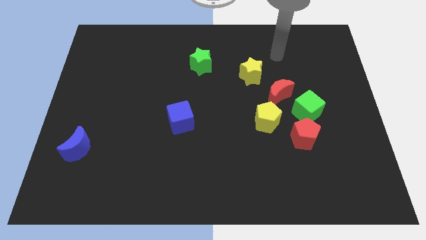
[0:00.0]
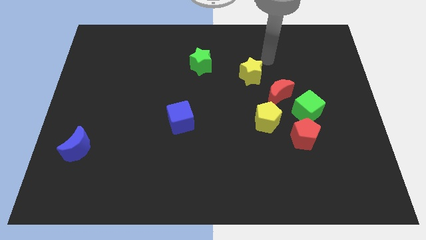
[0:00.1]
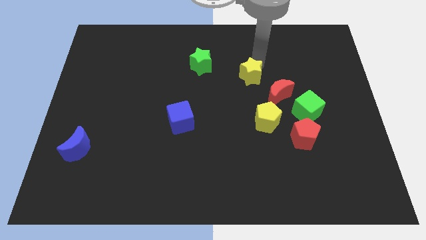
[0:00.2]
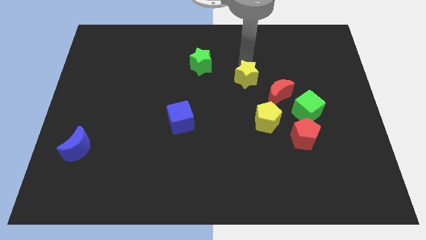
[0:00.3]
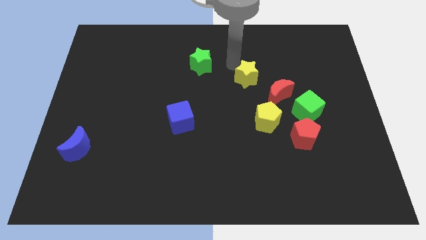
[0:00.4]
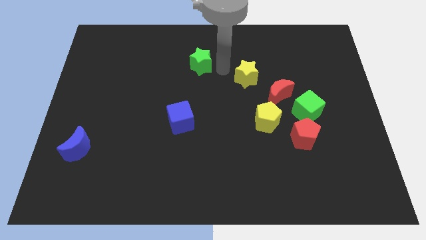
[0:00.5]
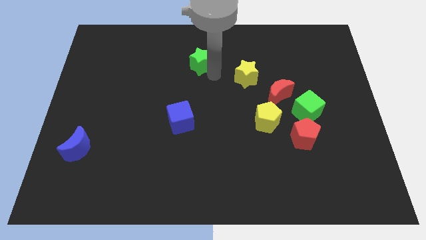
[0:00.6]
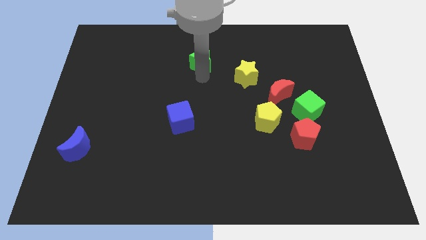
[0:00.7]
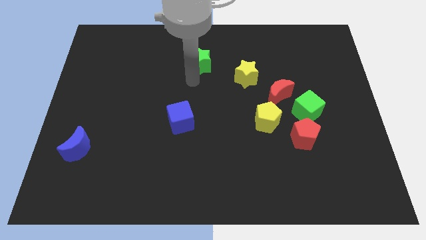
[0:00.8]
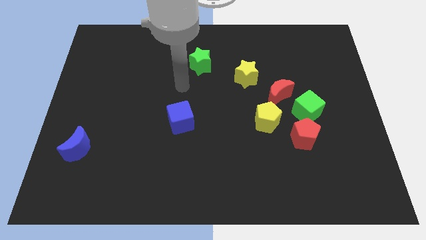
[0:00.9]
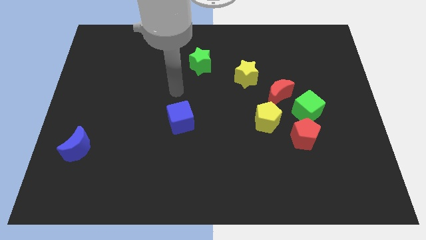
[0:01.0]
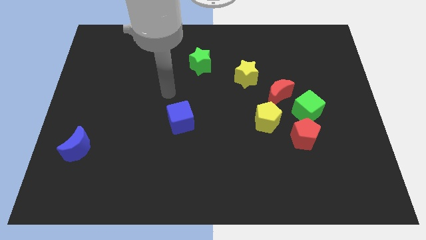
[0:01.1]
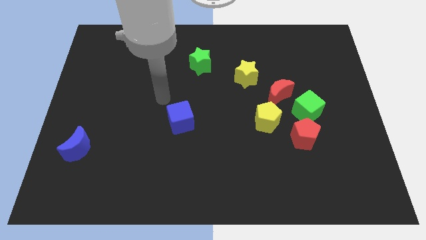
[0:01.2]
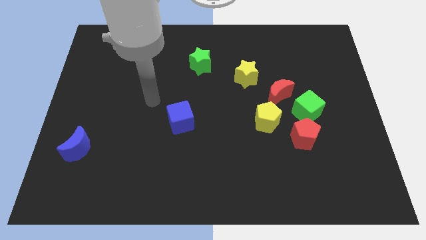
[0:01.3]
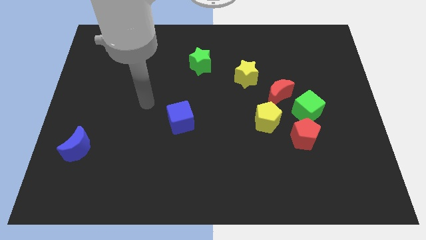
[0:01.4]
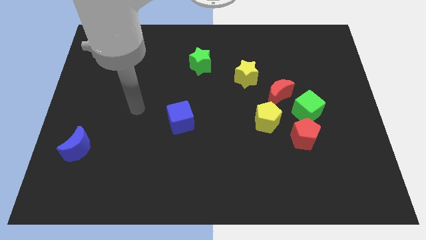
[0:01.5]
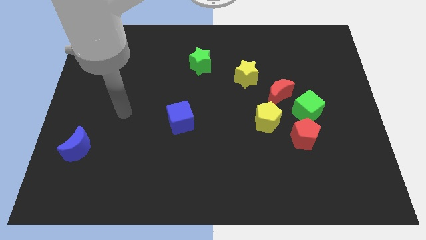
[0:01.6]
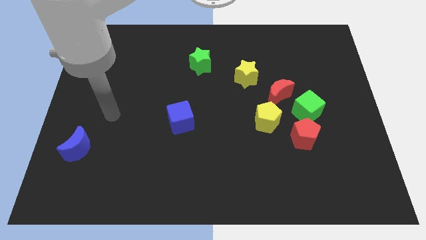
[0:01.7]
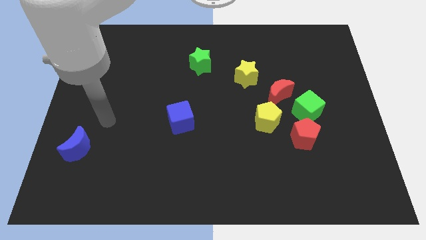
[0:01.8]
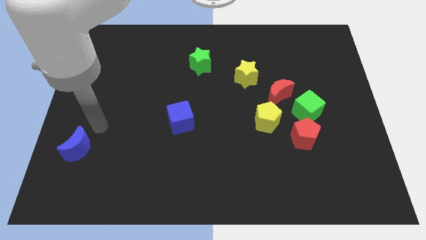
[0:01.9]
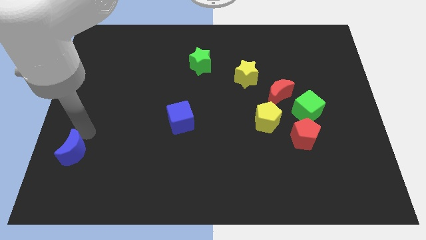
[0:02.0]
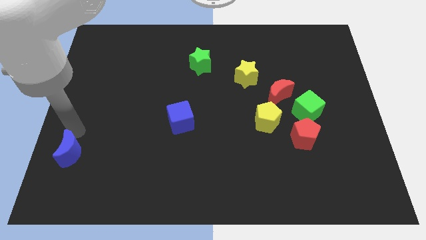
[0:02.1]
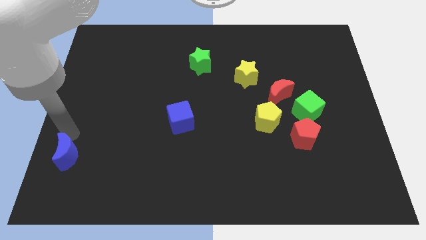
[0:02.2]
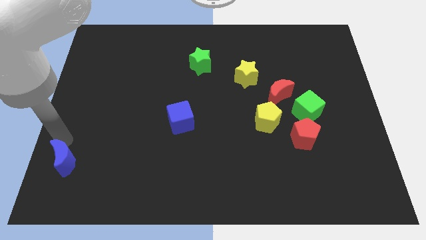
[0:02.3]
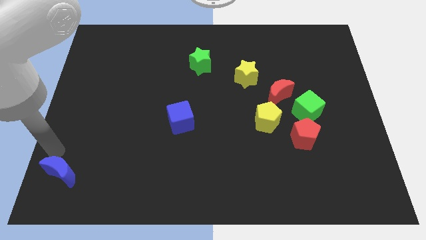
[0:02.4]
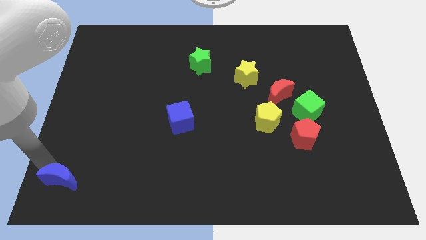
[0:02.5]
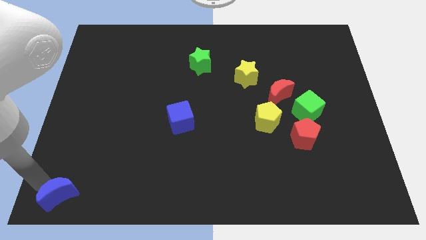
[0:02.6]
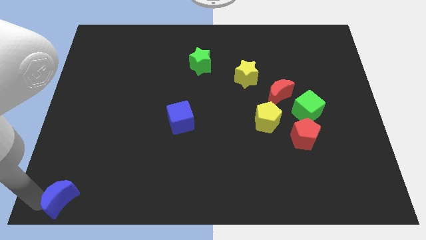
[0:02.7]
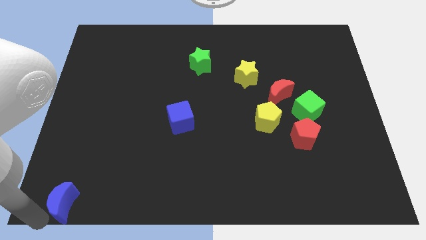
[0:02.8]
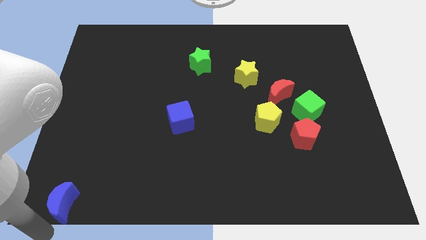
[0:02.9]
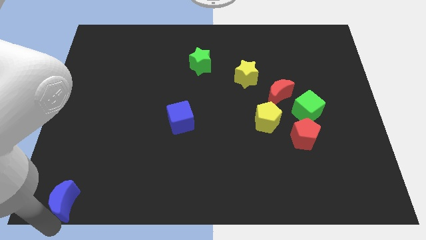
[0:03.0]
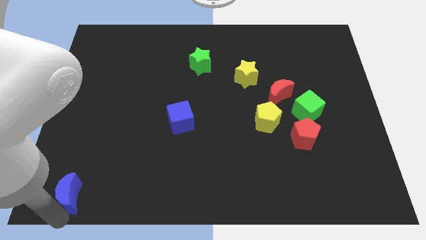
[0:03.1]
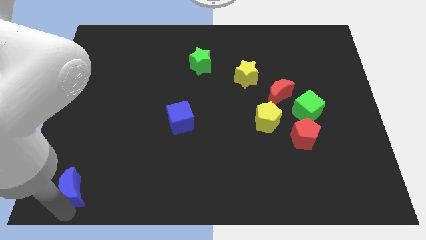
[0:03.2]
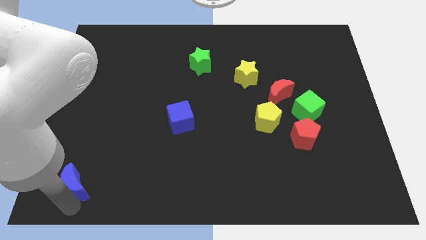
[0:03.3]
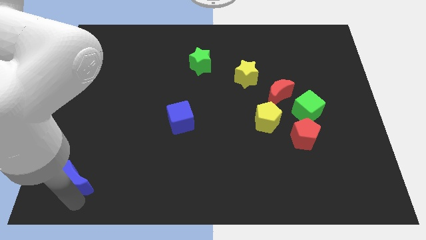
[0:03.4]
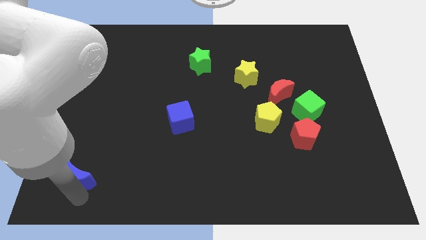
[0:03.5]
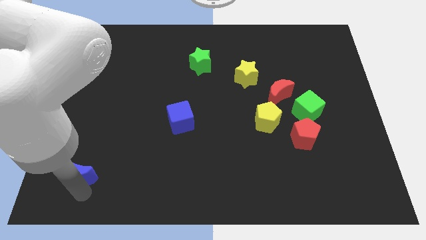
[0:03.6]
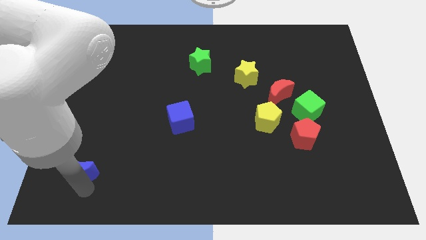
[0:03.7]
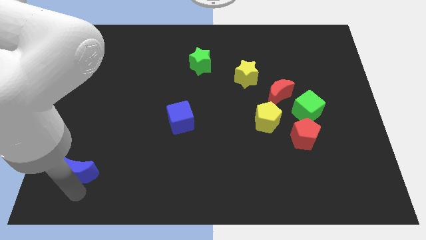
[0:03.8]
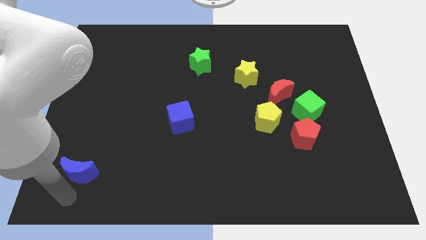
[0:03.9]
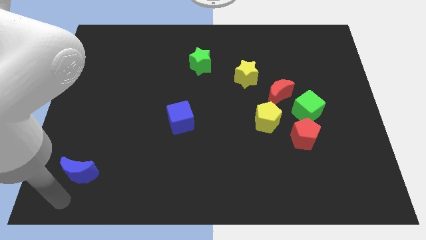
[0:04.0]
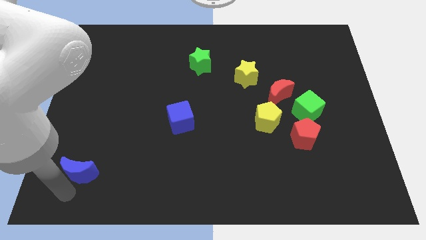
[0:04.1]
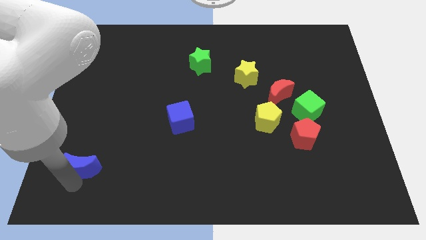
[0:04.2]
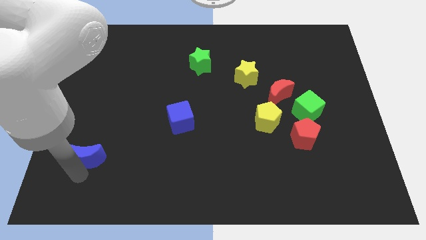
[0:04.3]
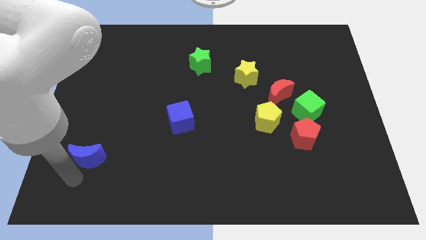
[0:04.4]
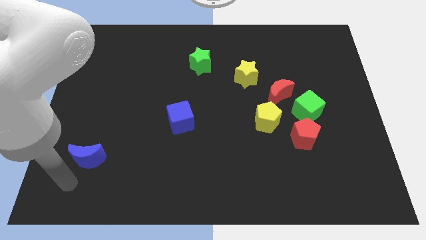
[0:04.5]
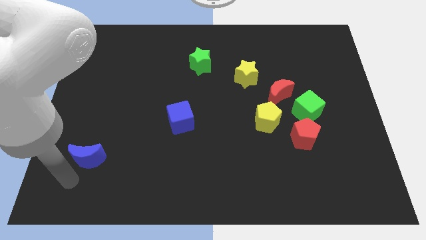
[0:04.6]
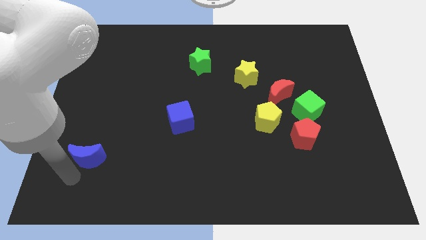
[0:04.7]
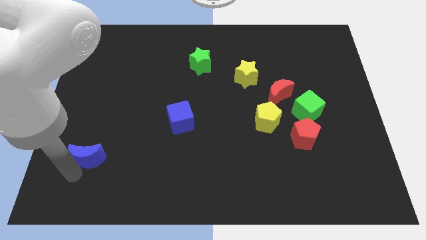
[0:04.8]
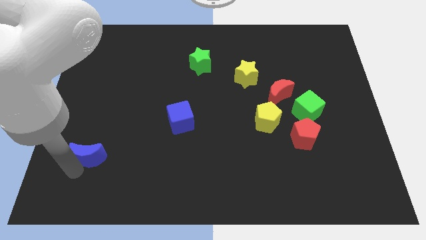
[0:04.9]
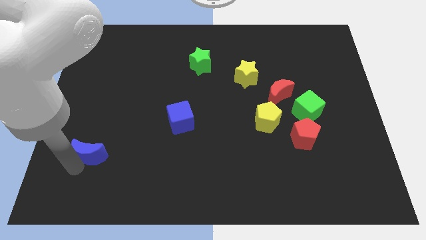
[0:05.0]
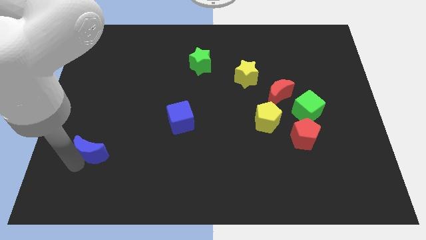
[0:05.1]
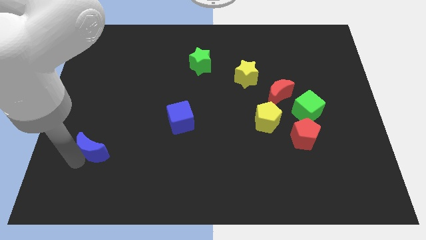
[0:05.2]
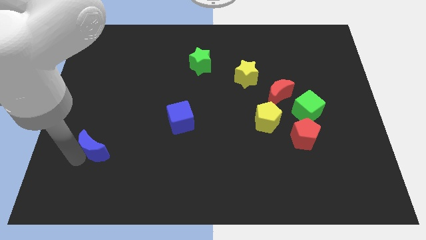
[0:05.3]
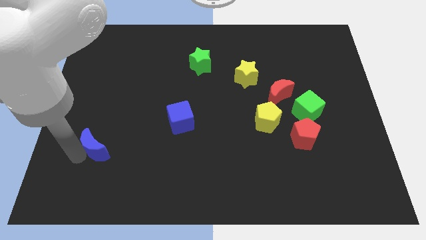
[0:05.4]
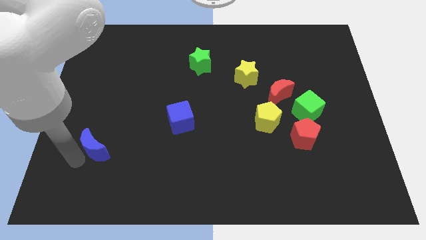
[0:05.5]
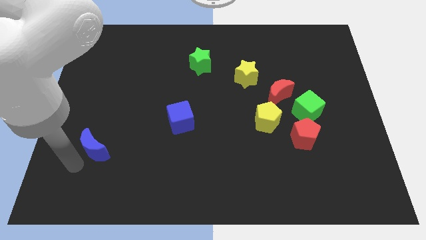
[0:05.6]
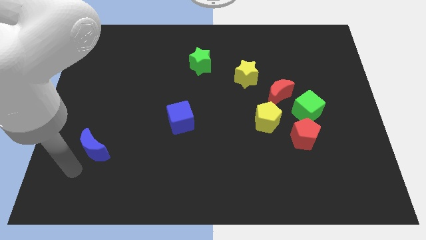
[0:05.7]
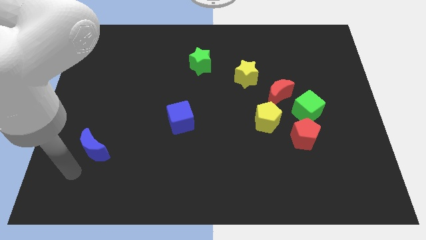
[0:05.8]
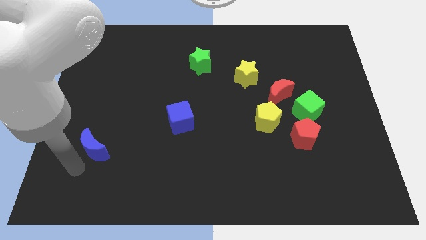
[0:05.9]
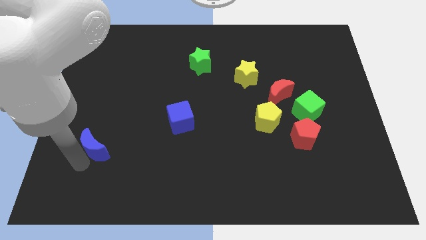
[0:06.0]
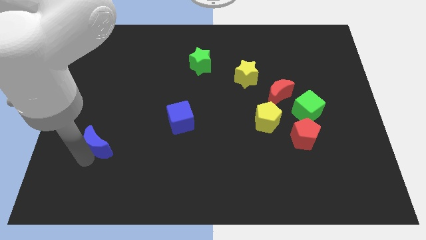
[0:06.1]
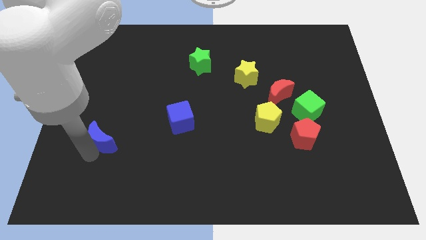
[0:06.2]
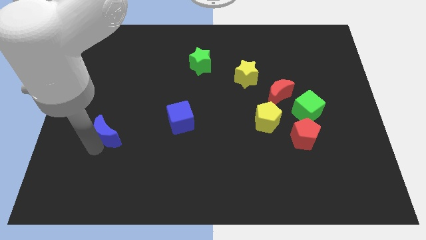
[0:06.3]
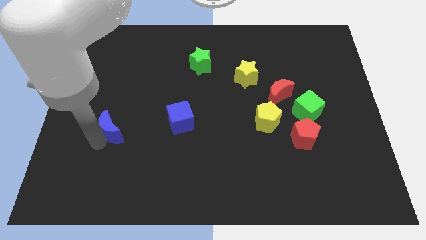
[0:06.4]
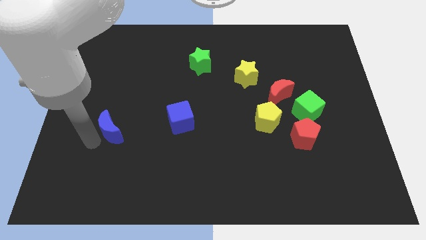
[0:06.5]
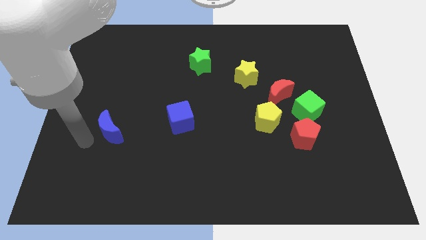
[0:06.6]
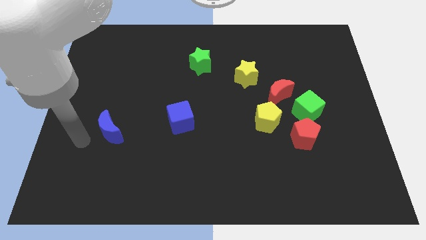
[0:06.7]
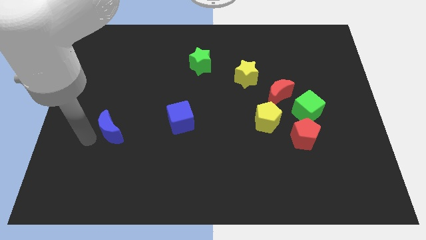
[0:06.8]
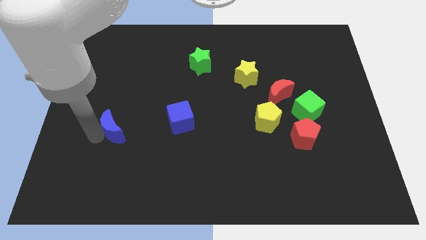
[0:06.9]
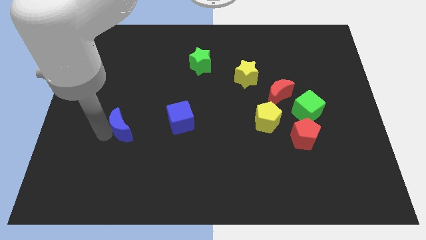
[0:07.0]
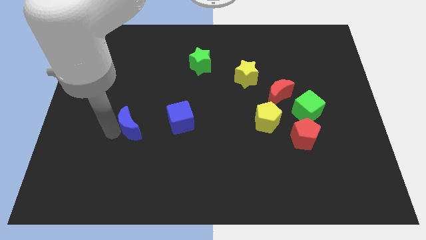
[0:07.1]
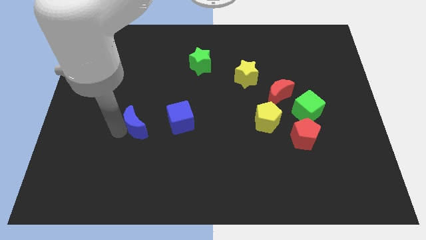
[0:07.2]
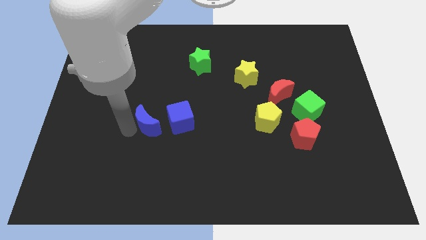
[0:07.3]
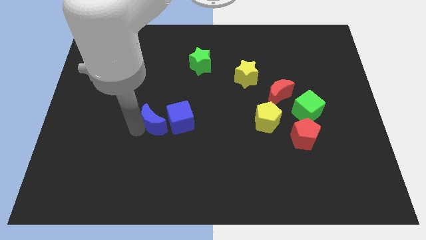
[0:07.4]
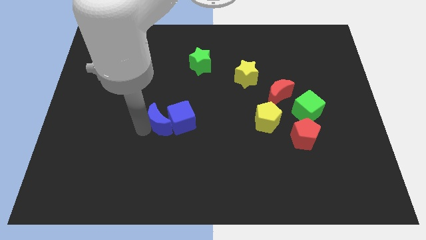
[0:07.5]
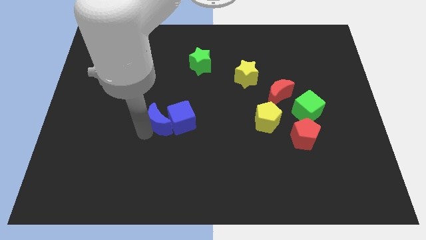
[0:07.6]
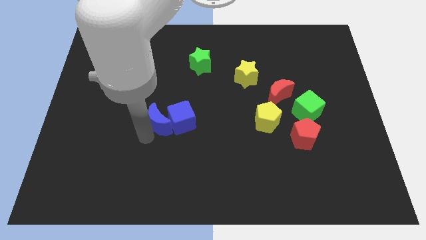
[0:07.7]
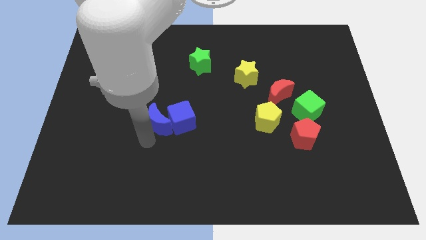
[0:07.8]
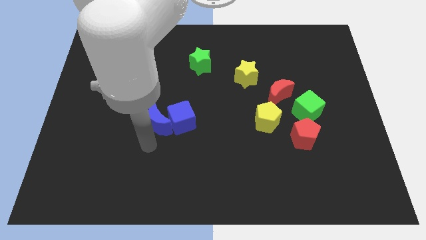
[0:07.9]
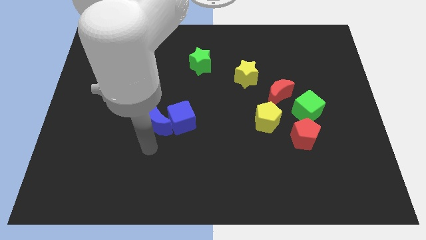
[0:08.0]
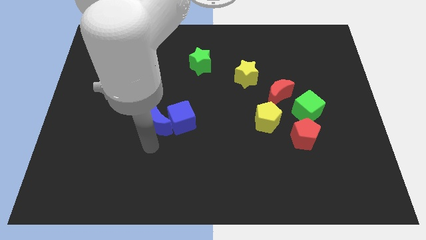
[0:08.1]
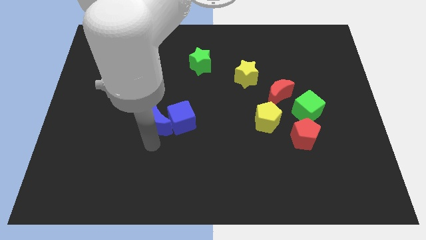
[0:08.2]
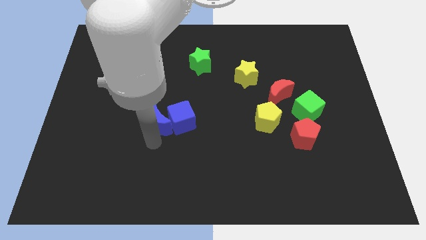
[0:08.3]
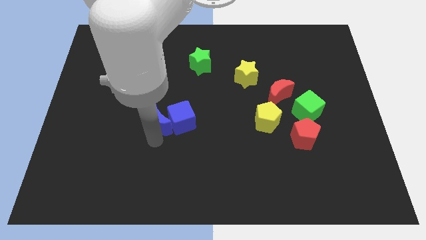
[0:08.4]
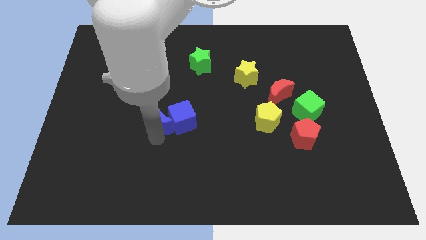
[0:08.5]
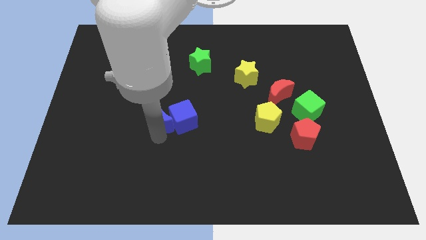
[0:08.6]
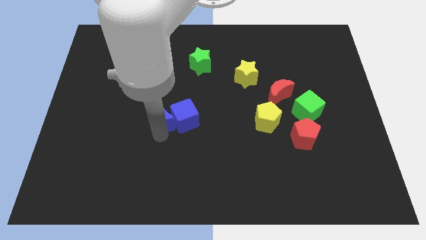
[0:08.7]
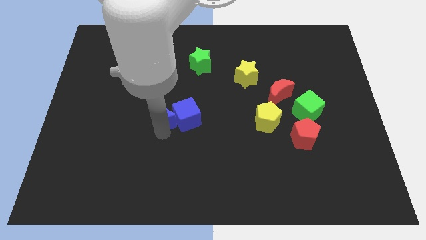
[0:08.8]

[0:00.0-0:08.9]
slide the blue moon to the center of the board
